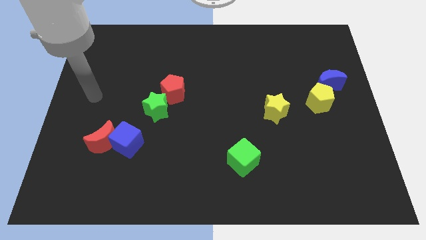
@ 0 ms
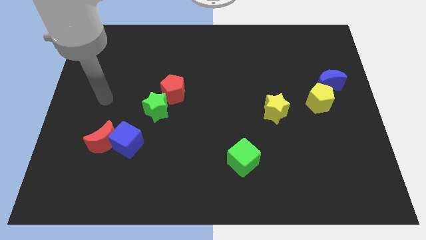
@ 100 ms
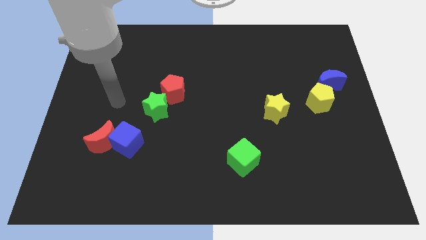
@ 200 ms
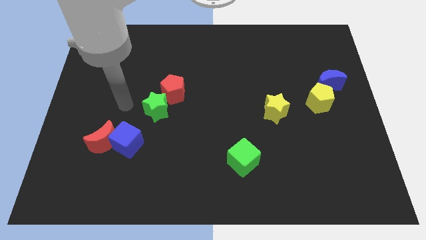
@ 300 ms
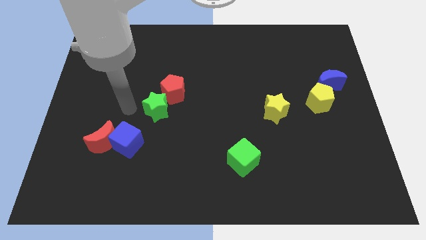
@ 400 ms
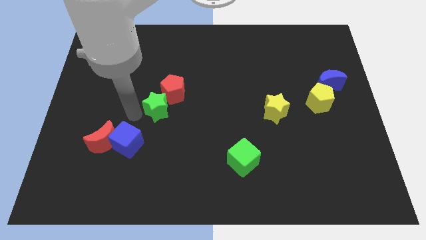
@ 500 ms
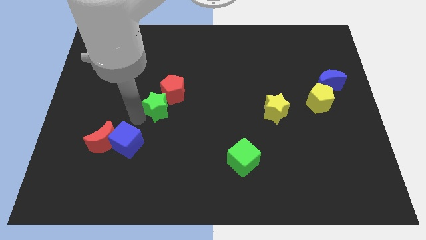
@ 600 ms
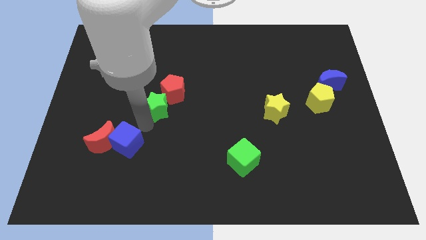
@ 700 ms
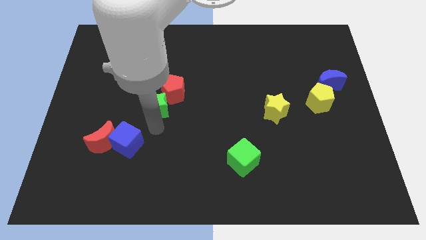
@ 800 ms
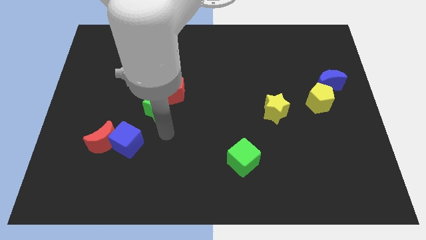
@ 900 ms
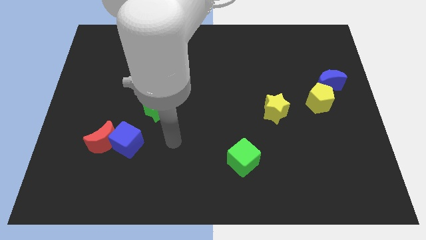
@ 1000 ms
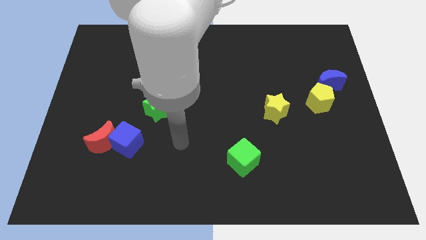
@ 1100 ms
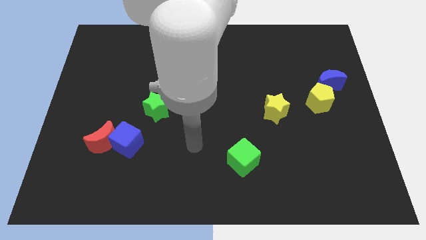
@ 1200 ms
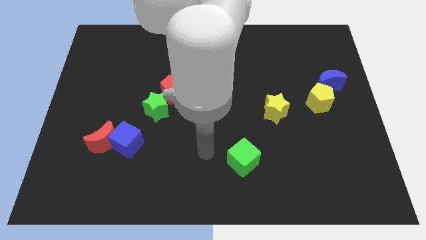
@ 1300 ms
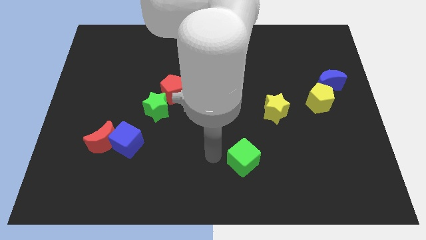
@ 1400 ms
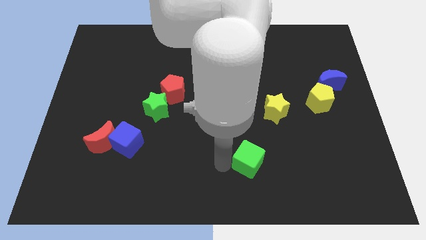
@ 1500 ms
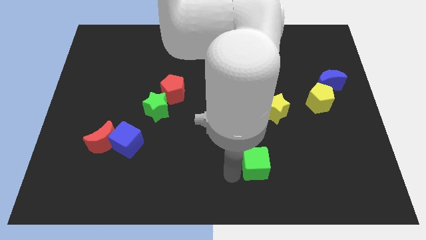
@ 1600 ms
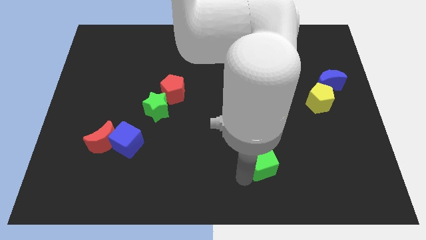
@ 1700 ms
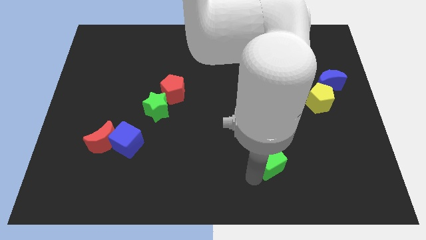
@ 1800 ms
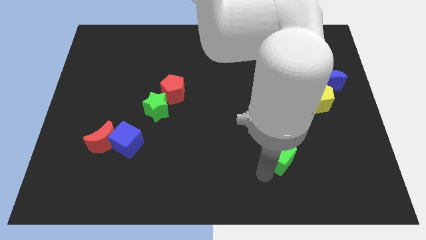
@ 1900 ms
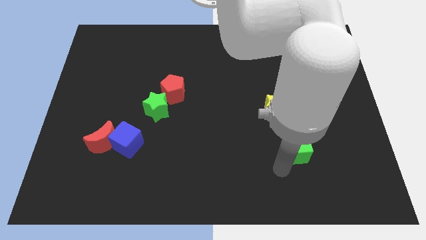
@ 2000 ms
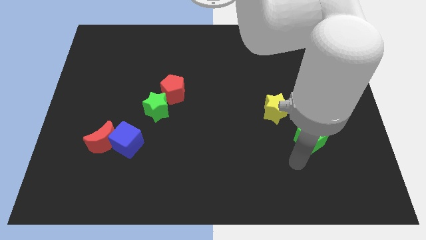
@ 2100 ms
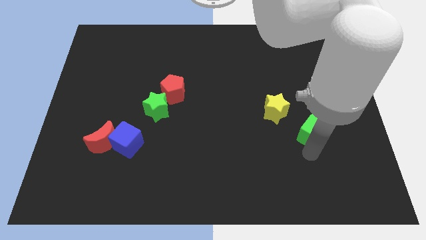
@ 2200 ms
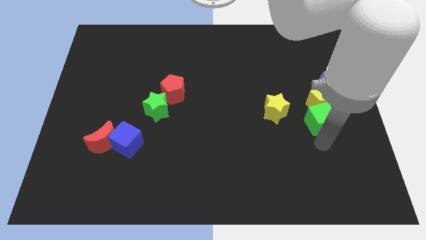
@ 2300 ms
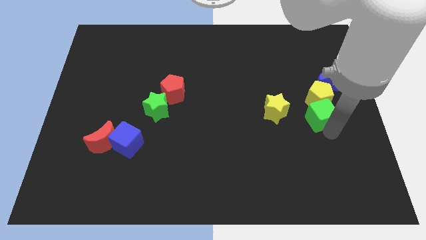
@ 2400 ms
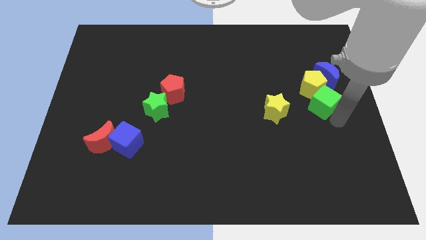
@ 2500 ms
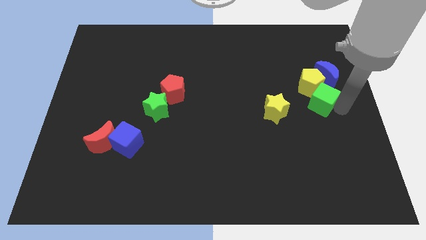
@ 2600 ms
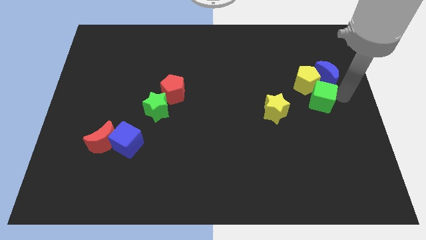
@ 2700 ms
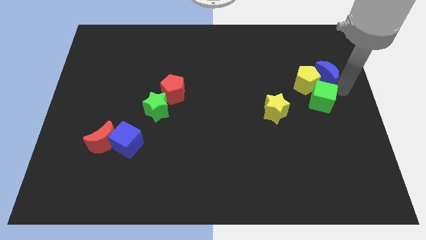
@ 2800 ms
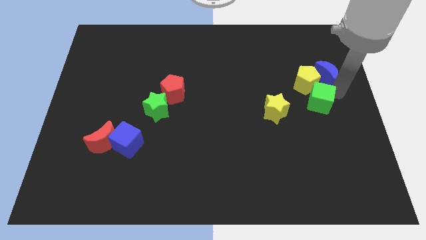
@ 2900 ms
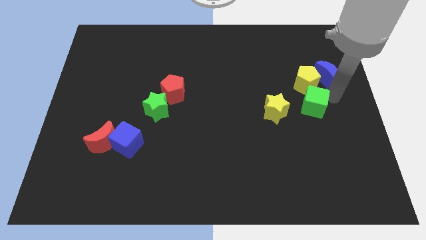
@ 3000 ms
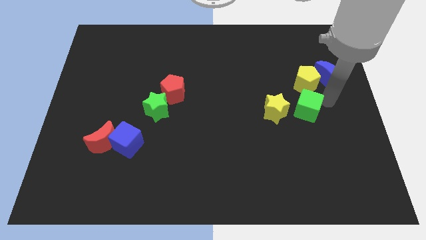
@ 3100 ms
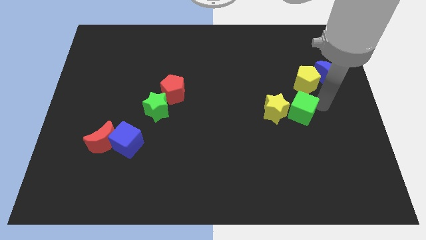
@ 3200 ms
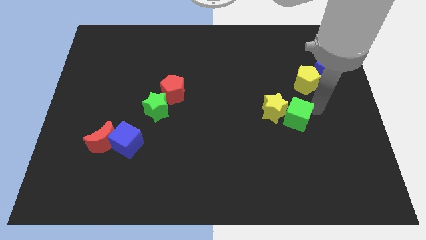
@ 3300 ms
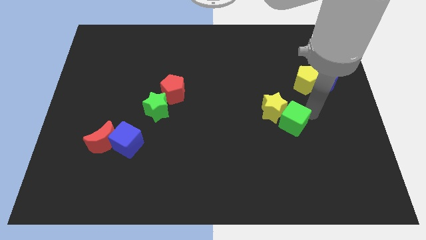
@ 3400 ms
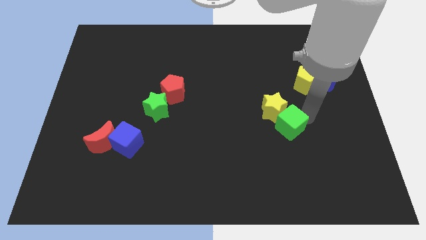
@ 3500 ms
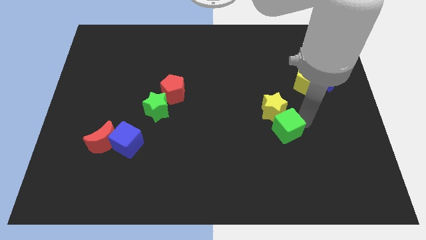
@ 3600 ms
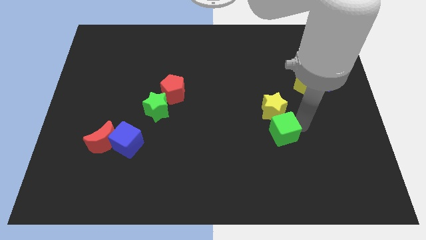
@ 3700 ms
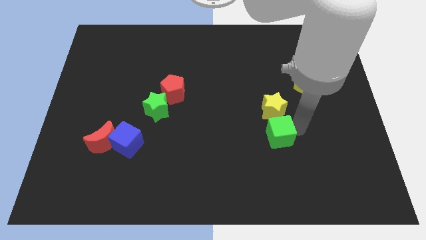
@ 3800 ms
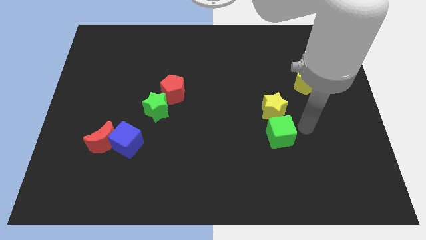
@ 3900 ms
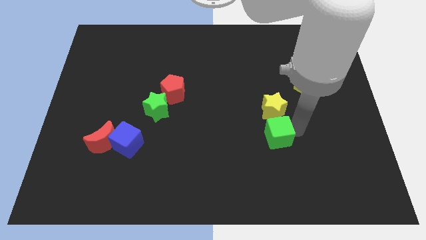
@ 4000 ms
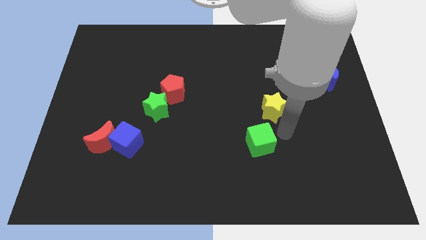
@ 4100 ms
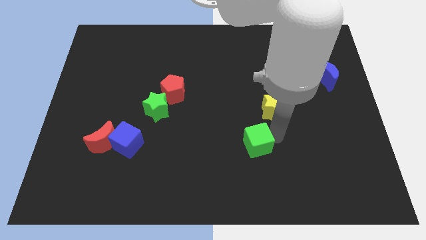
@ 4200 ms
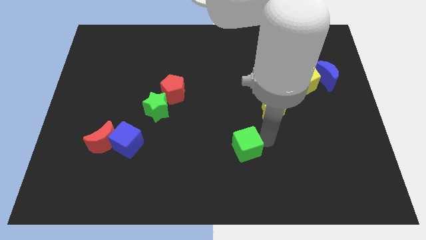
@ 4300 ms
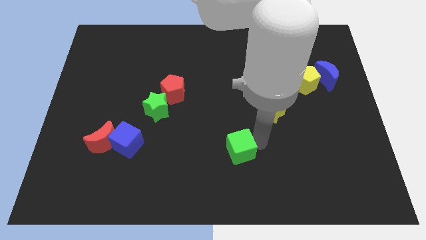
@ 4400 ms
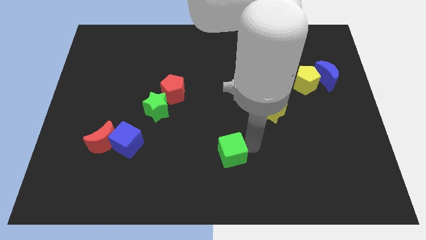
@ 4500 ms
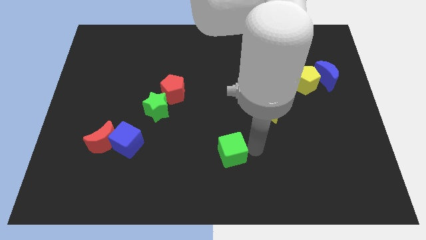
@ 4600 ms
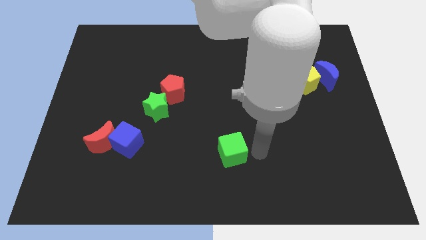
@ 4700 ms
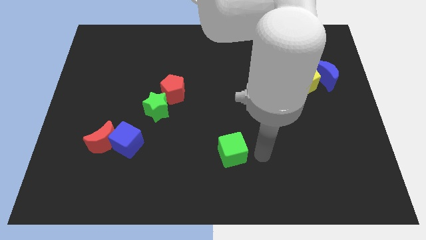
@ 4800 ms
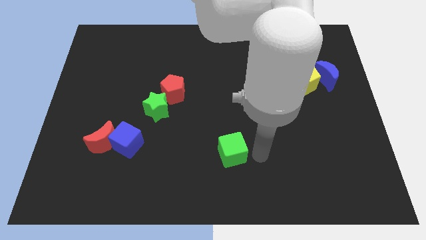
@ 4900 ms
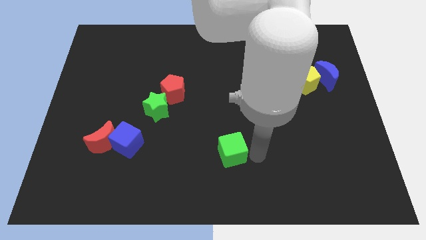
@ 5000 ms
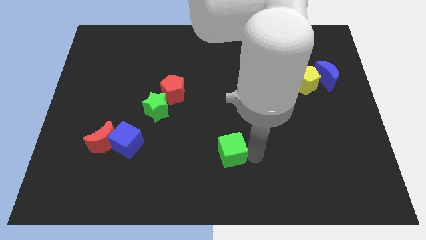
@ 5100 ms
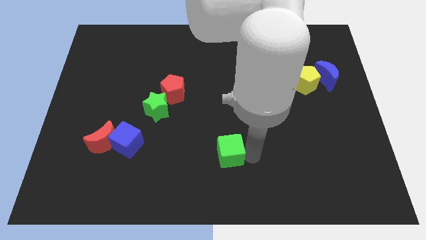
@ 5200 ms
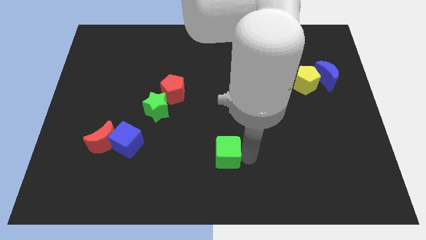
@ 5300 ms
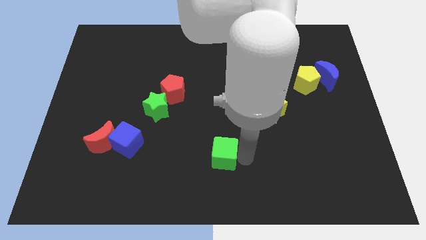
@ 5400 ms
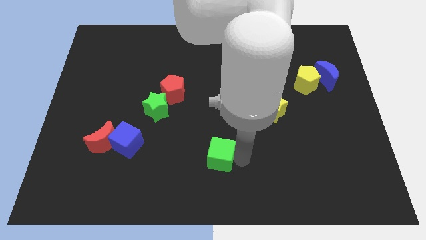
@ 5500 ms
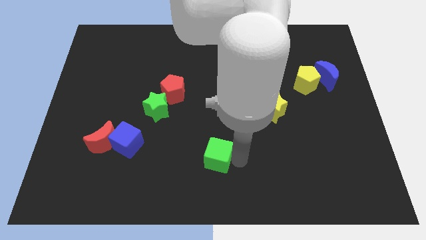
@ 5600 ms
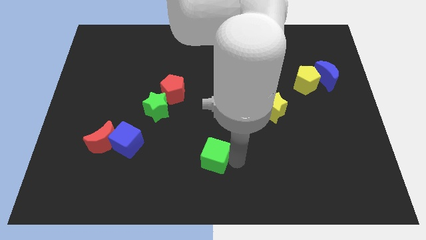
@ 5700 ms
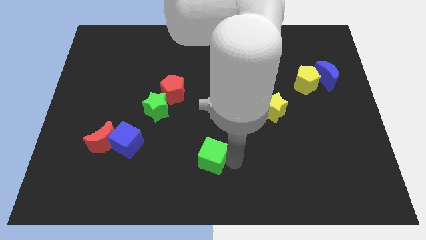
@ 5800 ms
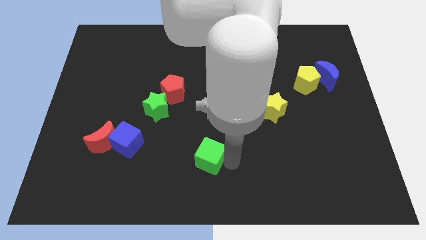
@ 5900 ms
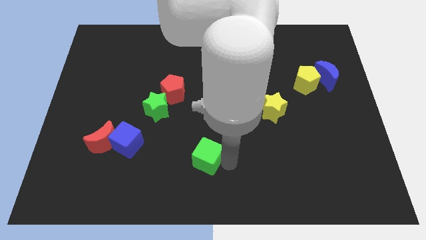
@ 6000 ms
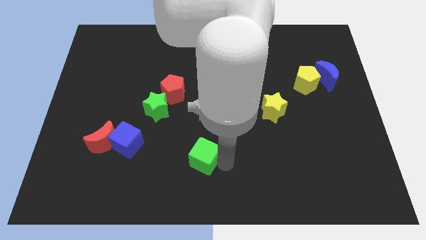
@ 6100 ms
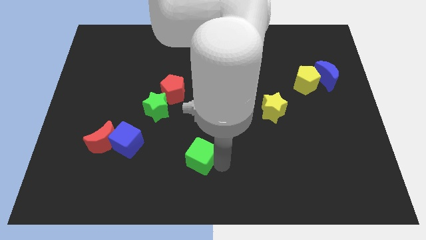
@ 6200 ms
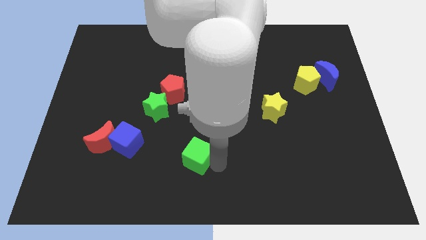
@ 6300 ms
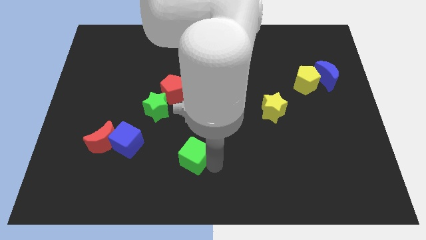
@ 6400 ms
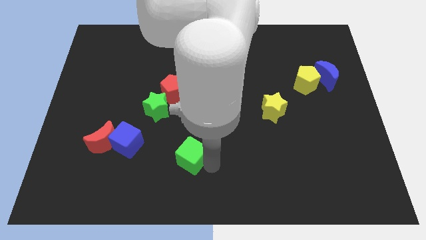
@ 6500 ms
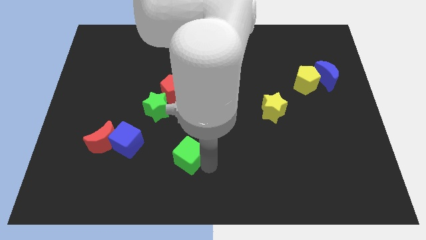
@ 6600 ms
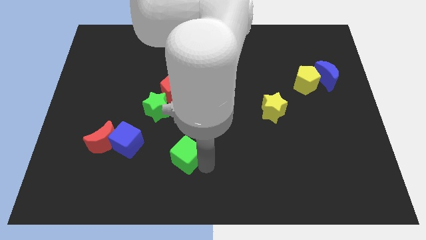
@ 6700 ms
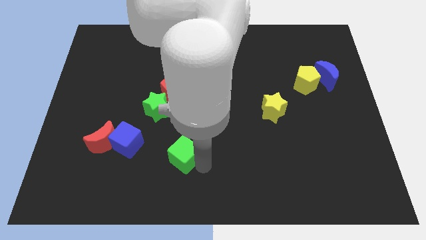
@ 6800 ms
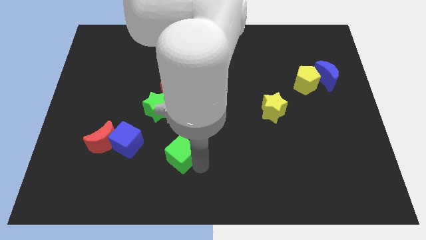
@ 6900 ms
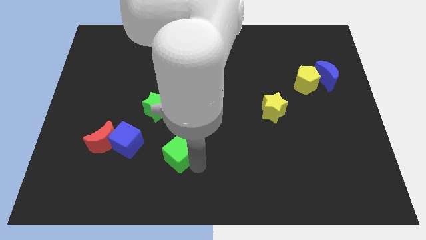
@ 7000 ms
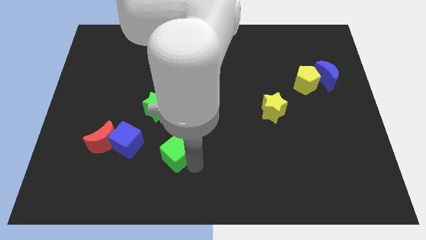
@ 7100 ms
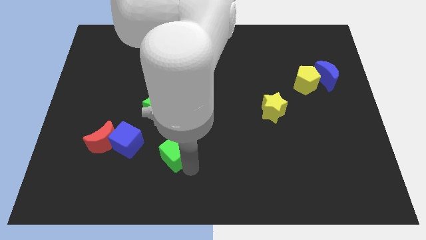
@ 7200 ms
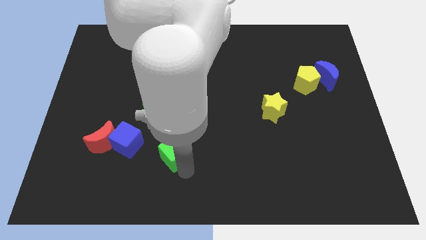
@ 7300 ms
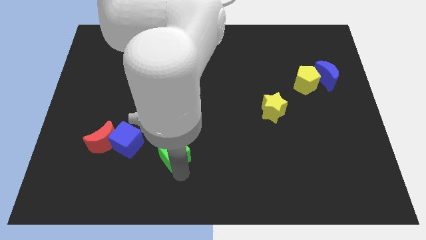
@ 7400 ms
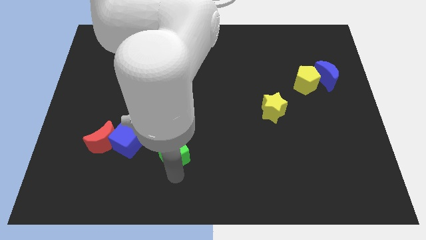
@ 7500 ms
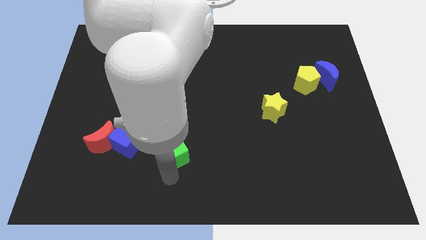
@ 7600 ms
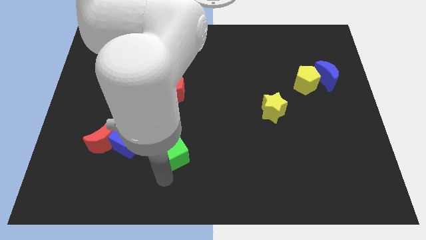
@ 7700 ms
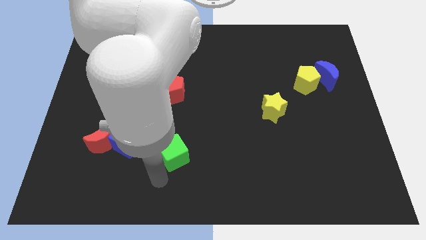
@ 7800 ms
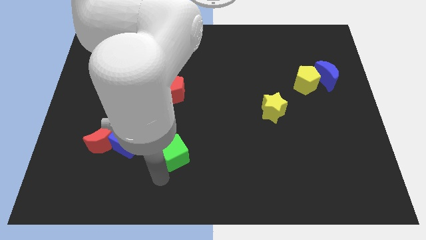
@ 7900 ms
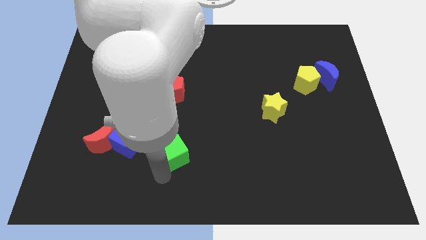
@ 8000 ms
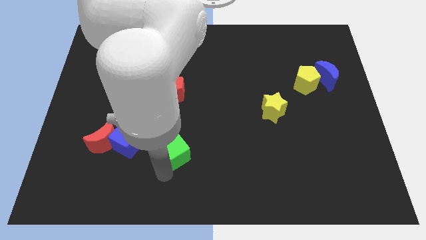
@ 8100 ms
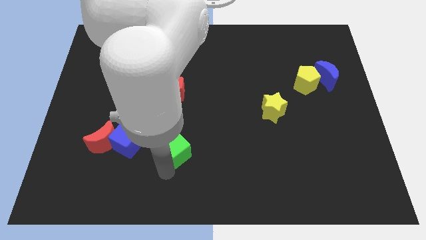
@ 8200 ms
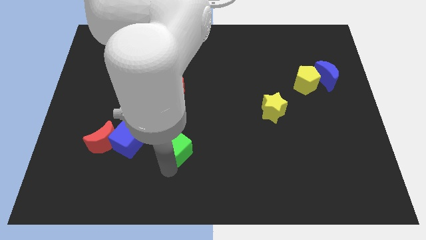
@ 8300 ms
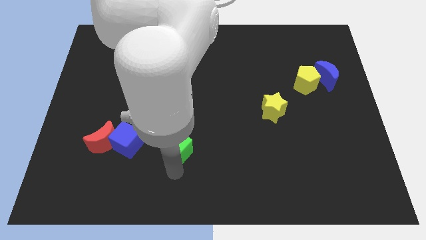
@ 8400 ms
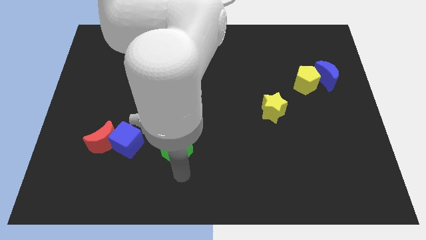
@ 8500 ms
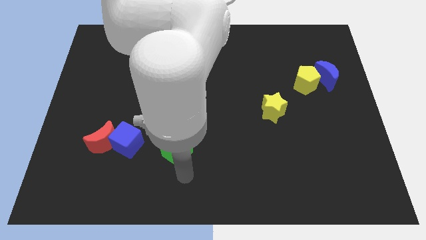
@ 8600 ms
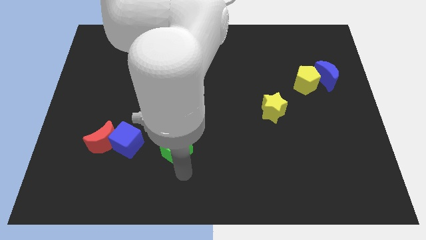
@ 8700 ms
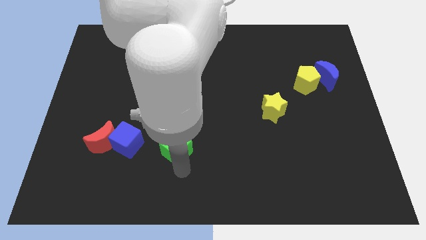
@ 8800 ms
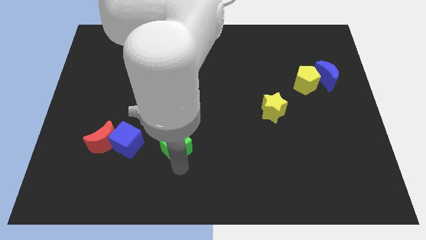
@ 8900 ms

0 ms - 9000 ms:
slide the green cube to the bottom of the red pentagon
